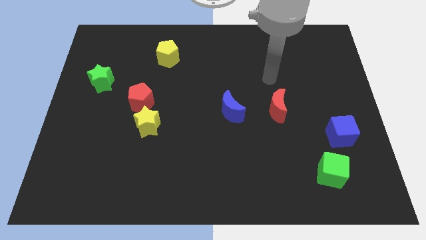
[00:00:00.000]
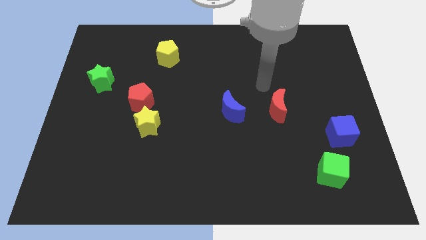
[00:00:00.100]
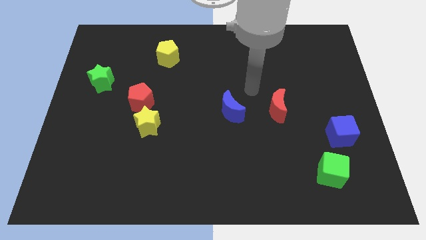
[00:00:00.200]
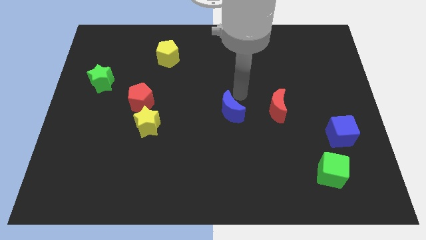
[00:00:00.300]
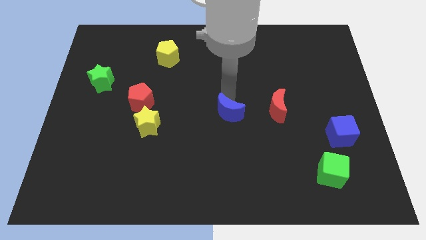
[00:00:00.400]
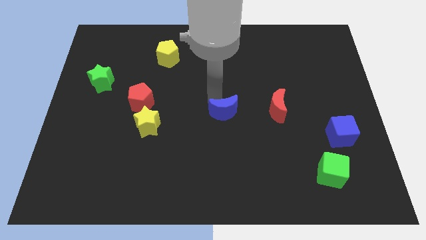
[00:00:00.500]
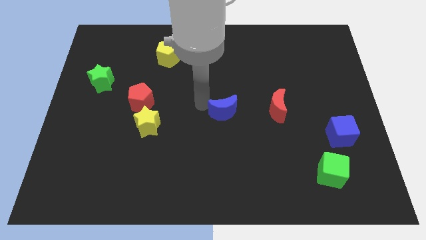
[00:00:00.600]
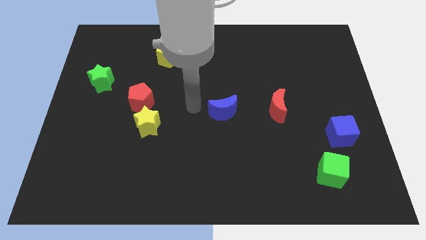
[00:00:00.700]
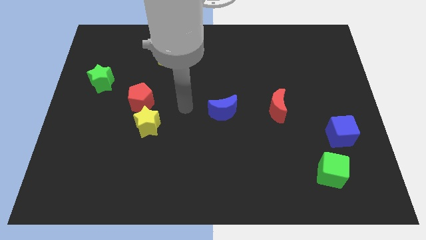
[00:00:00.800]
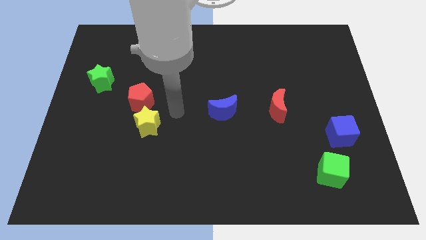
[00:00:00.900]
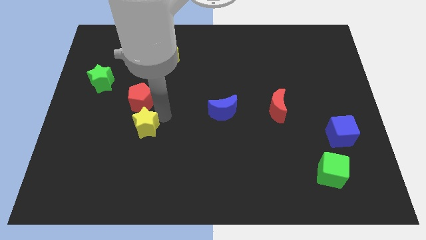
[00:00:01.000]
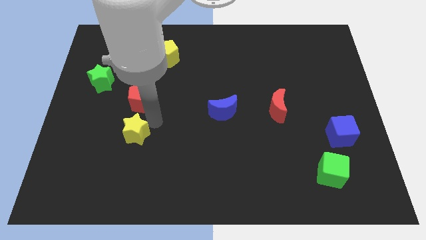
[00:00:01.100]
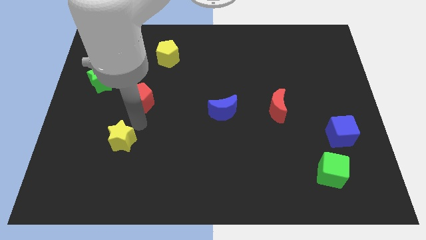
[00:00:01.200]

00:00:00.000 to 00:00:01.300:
separate the red pentagon from the yellow star

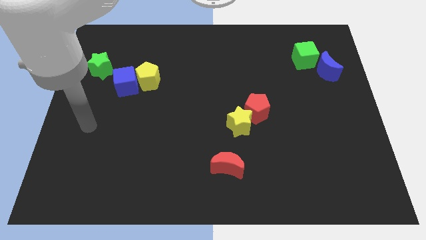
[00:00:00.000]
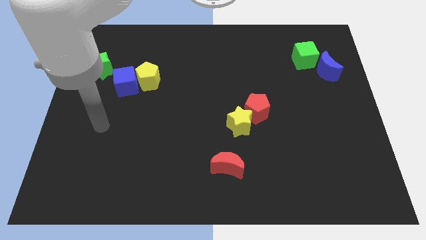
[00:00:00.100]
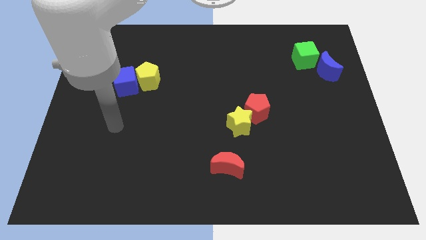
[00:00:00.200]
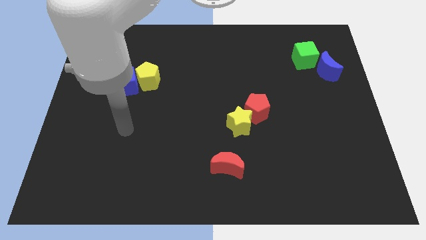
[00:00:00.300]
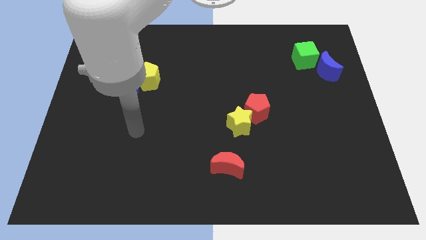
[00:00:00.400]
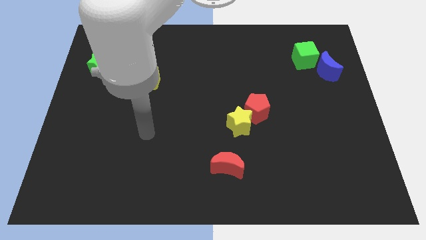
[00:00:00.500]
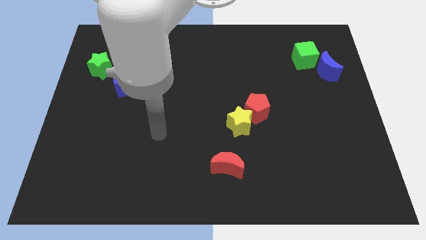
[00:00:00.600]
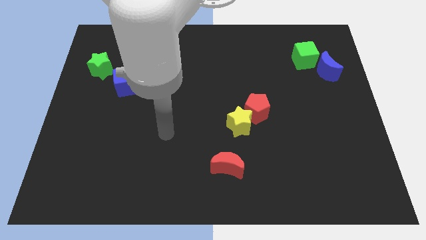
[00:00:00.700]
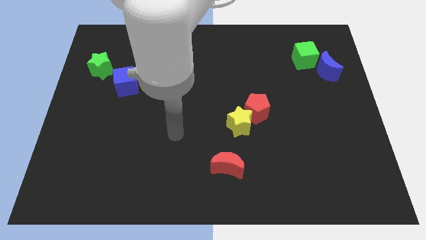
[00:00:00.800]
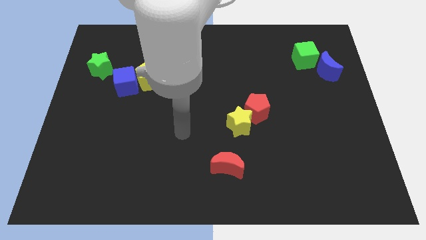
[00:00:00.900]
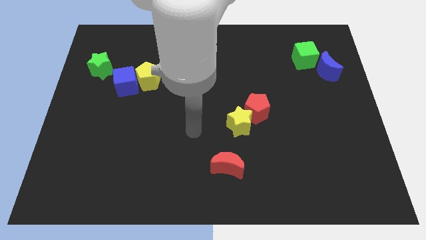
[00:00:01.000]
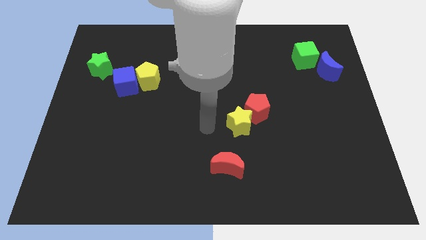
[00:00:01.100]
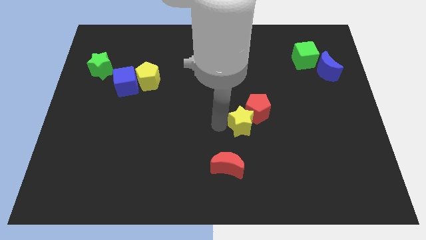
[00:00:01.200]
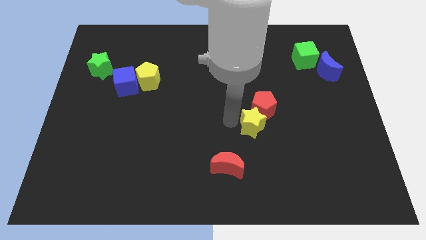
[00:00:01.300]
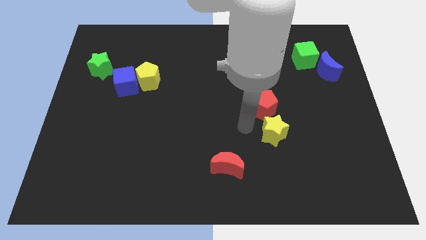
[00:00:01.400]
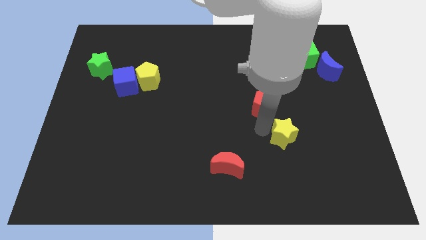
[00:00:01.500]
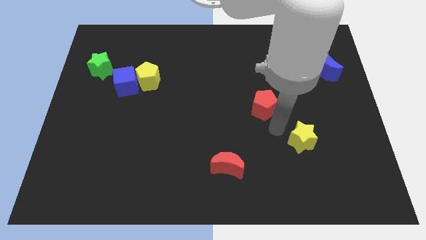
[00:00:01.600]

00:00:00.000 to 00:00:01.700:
move the red pentagon away from the yellow star

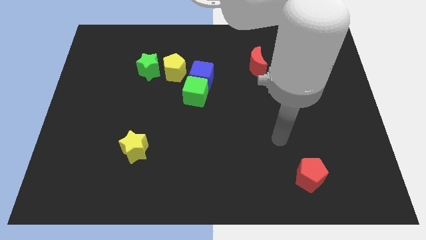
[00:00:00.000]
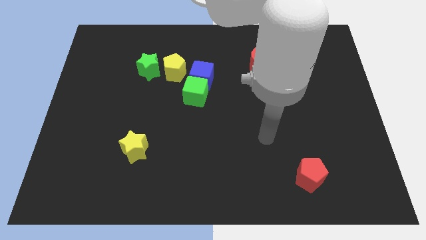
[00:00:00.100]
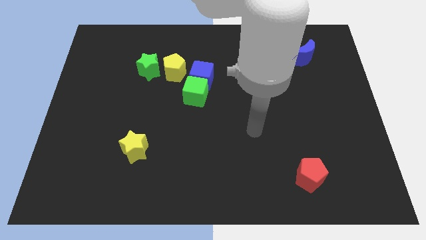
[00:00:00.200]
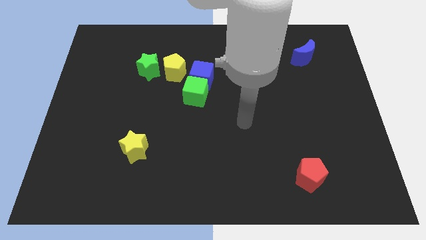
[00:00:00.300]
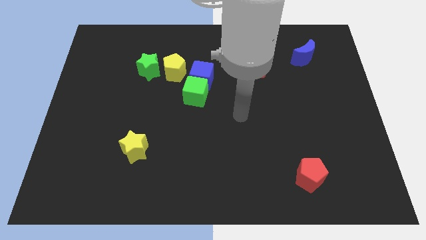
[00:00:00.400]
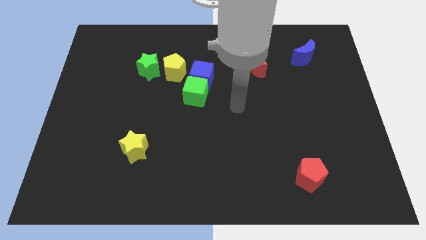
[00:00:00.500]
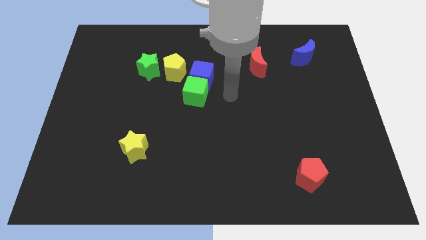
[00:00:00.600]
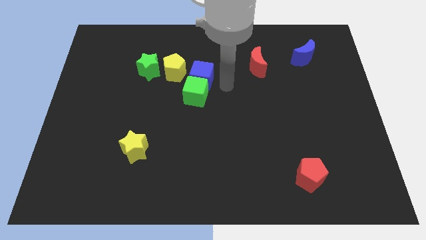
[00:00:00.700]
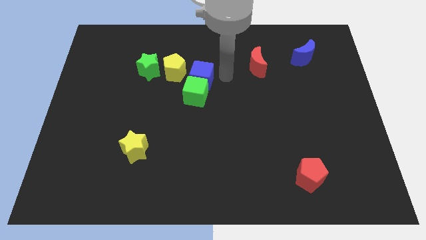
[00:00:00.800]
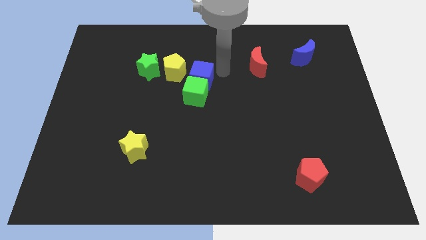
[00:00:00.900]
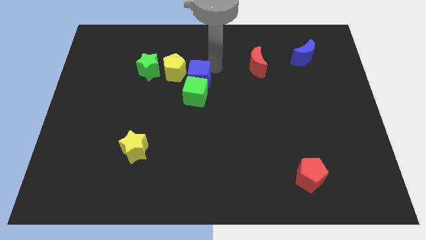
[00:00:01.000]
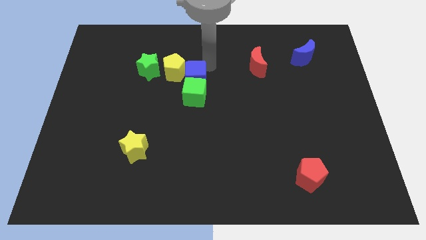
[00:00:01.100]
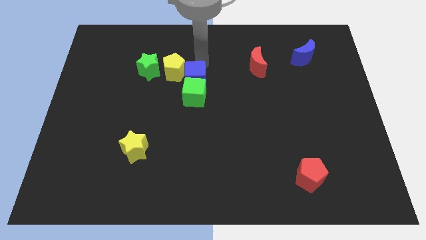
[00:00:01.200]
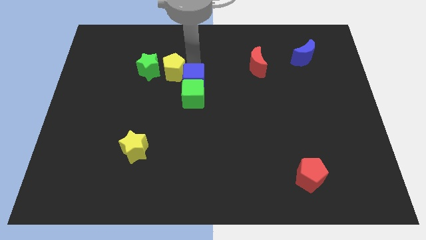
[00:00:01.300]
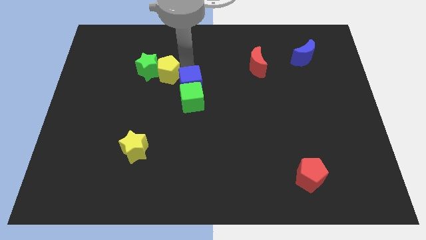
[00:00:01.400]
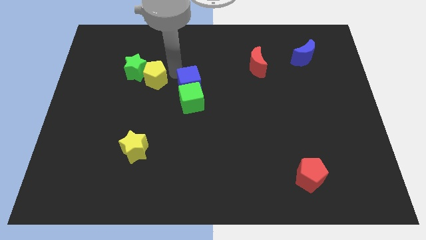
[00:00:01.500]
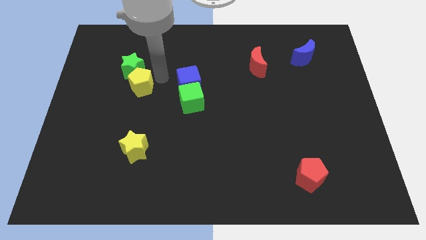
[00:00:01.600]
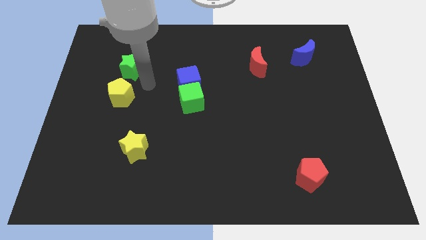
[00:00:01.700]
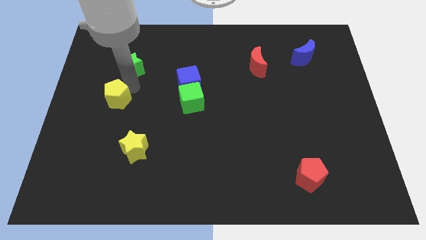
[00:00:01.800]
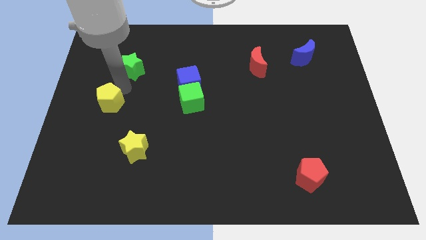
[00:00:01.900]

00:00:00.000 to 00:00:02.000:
move the green star away from the yellow pentagon

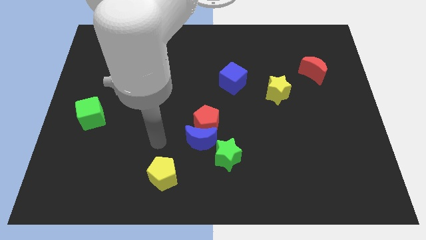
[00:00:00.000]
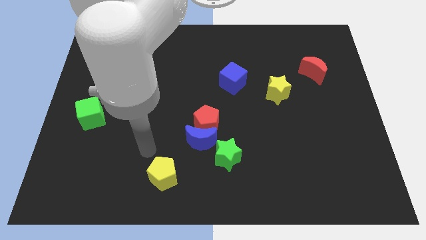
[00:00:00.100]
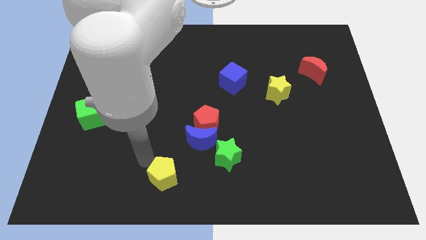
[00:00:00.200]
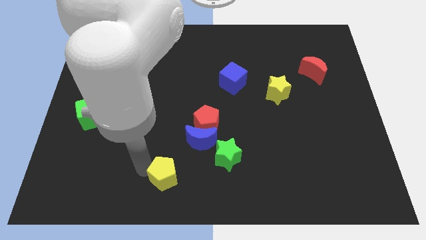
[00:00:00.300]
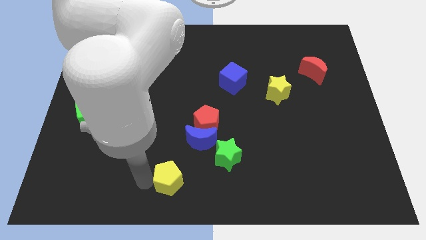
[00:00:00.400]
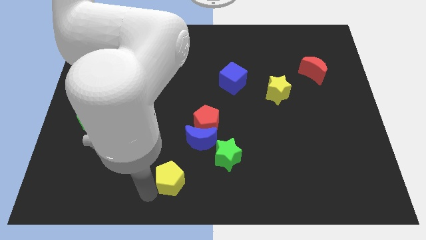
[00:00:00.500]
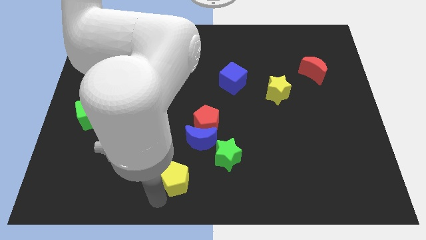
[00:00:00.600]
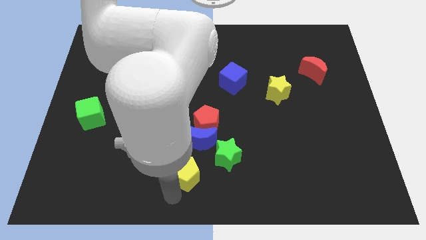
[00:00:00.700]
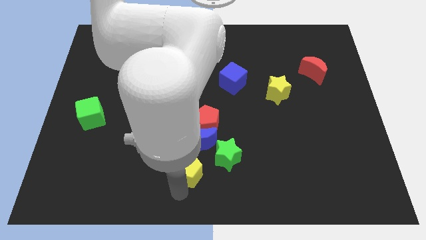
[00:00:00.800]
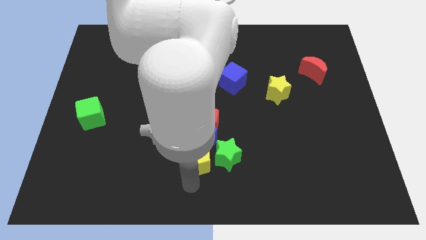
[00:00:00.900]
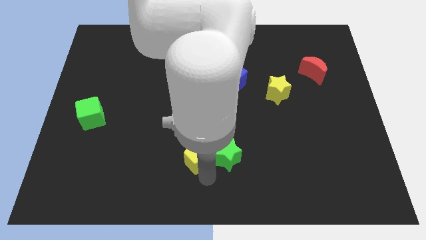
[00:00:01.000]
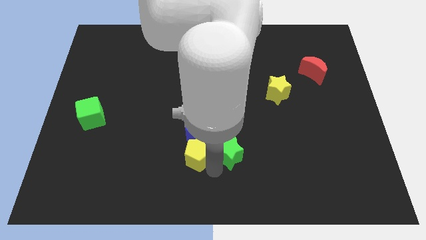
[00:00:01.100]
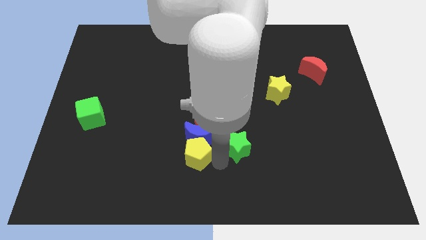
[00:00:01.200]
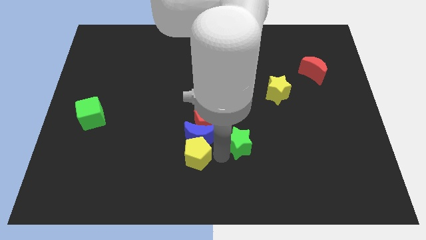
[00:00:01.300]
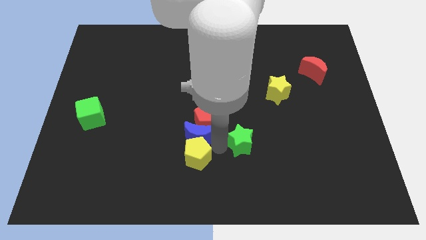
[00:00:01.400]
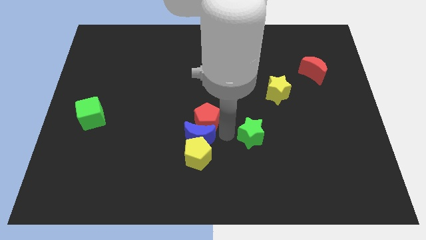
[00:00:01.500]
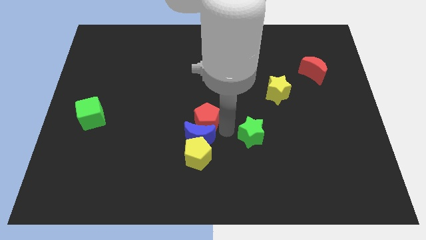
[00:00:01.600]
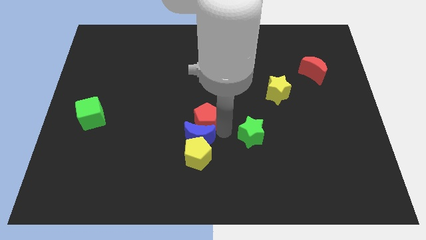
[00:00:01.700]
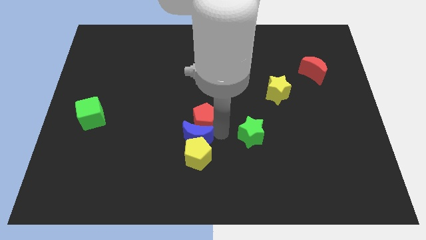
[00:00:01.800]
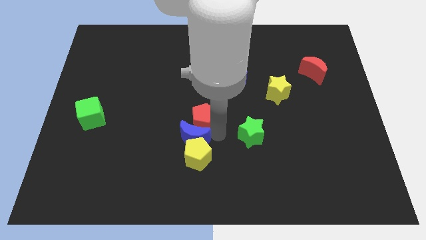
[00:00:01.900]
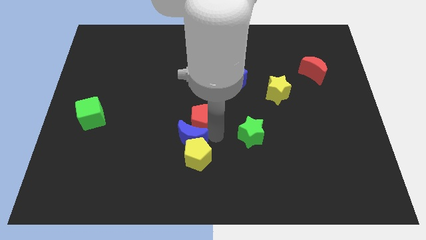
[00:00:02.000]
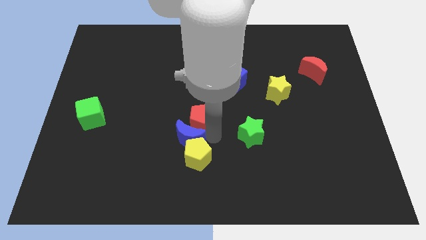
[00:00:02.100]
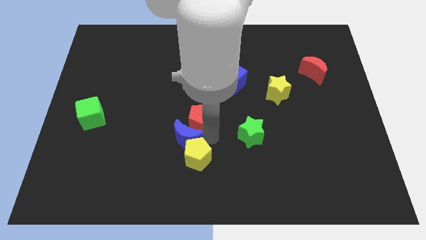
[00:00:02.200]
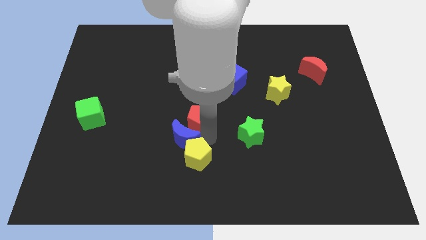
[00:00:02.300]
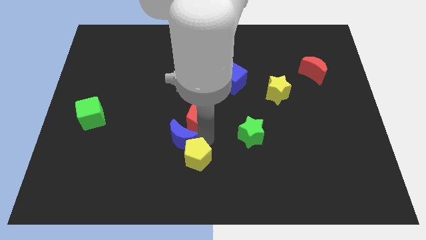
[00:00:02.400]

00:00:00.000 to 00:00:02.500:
move the blue moon away from the red pentagon and green star

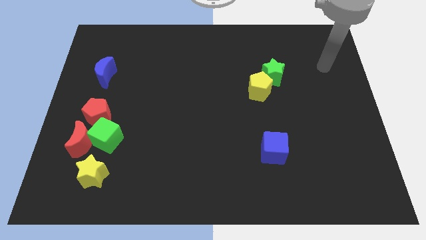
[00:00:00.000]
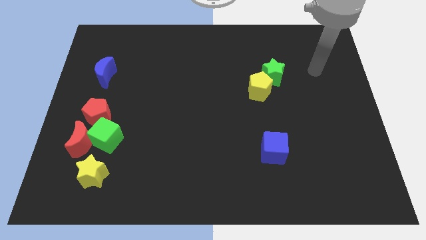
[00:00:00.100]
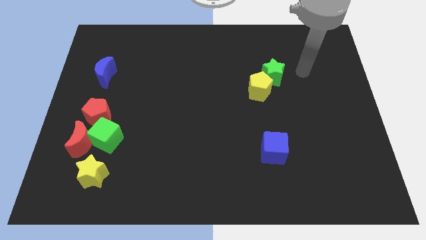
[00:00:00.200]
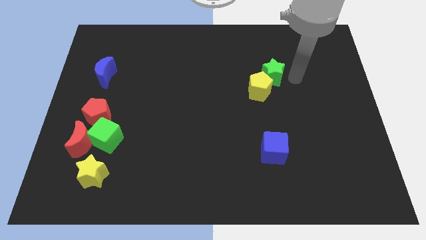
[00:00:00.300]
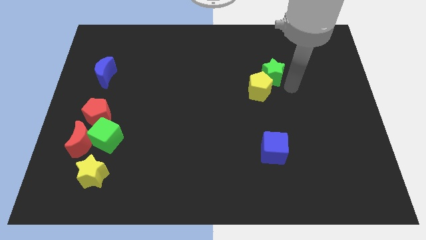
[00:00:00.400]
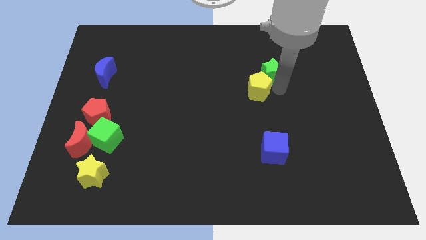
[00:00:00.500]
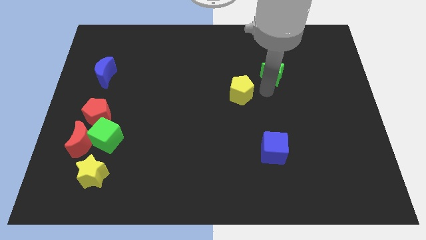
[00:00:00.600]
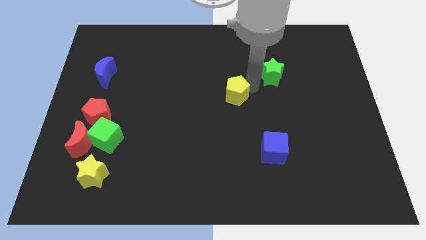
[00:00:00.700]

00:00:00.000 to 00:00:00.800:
pull the green star apart from the yellow pentagon

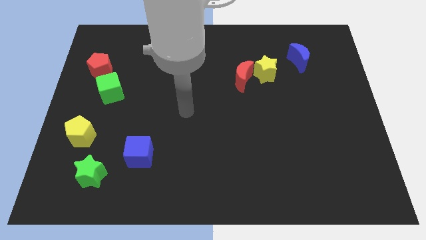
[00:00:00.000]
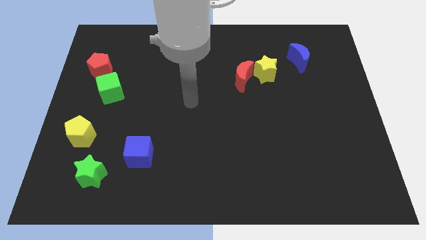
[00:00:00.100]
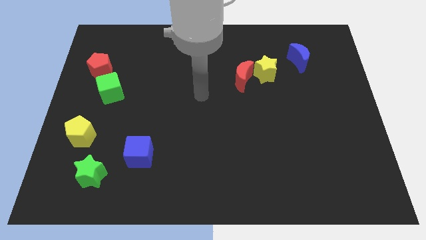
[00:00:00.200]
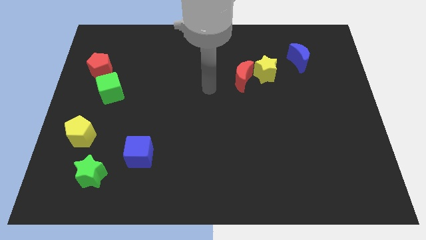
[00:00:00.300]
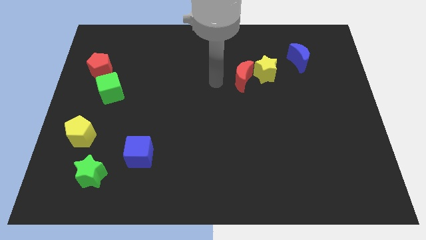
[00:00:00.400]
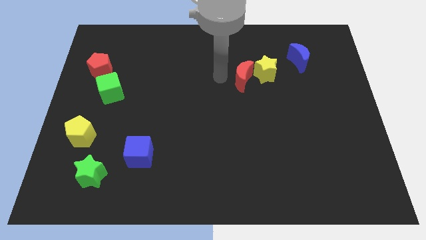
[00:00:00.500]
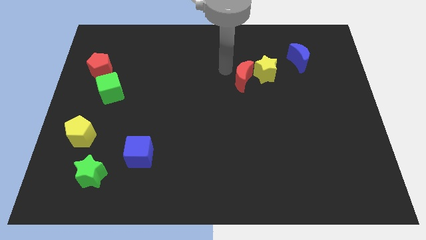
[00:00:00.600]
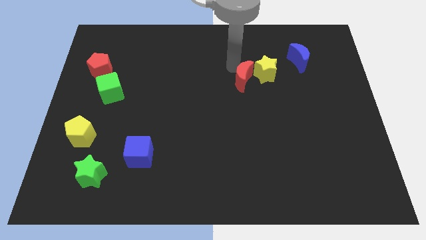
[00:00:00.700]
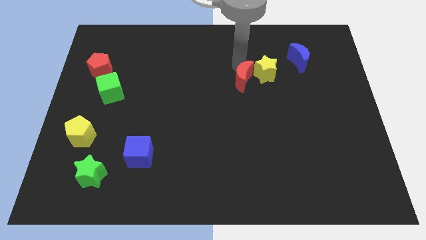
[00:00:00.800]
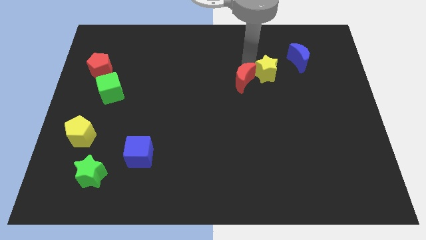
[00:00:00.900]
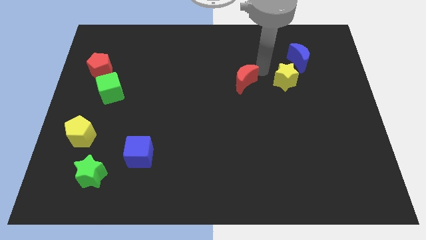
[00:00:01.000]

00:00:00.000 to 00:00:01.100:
separate the red moon from the yellow star
